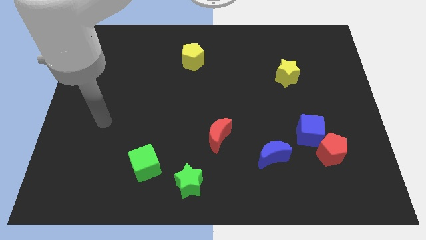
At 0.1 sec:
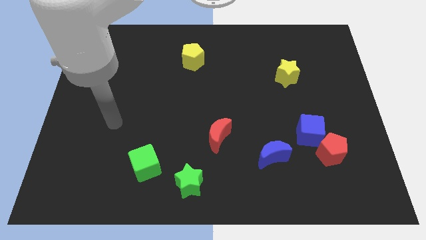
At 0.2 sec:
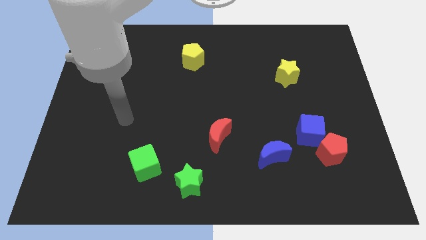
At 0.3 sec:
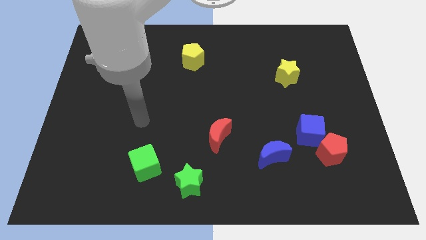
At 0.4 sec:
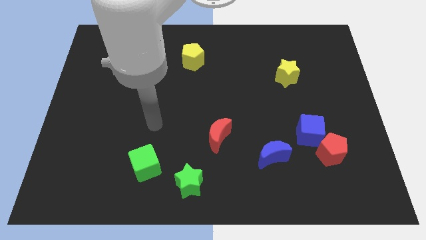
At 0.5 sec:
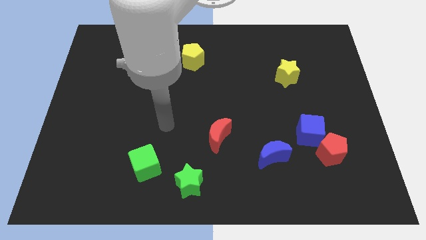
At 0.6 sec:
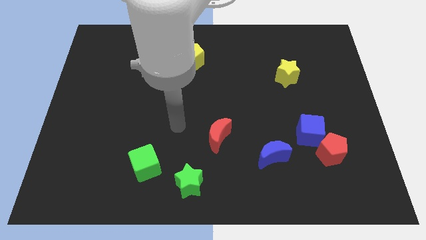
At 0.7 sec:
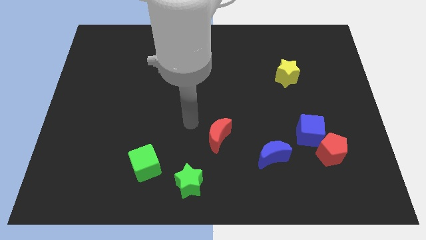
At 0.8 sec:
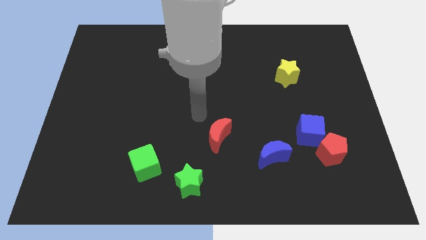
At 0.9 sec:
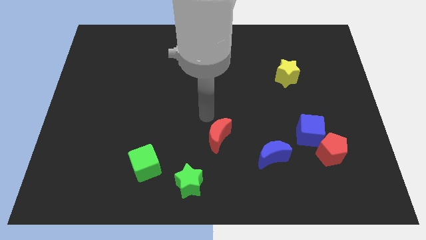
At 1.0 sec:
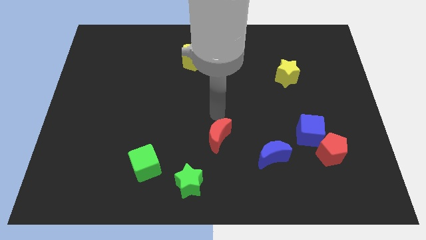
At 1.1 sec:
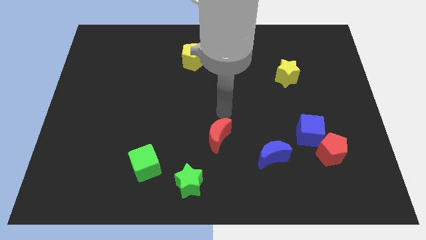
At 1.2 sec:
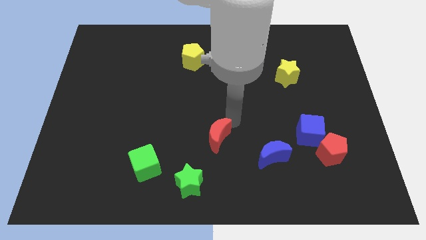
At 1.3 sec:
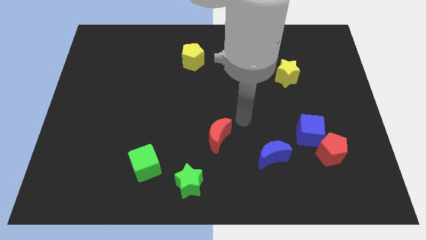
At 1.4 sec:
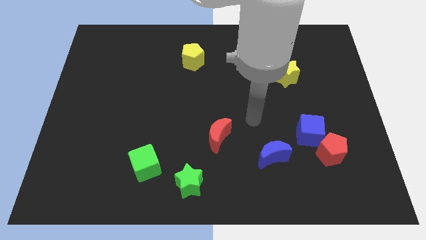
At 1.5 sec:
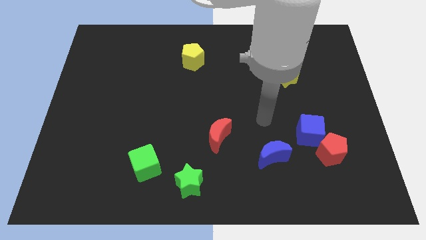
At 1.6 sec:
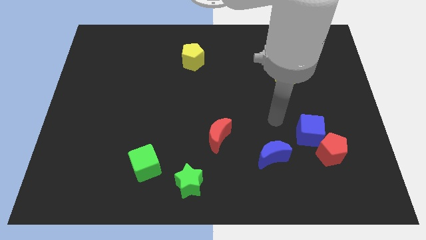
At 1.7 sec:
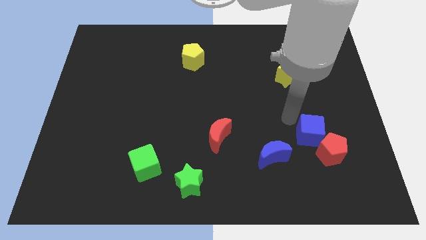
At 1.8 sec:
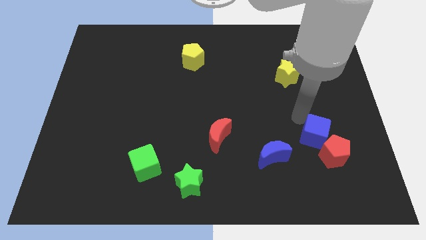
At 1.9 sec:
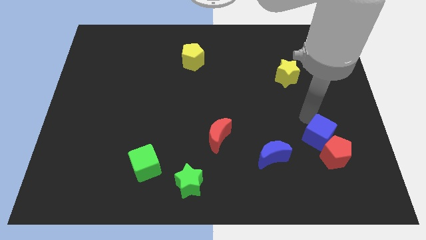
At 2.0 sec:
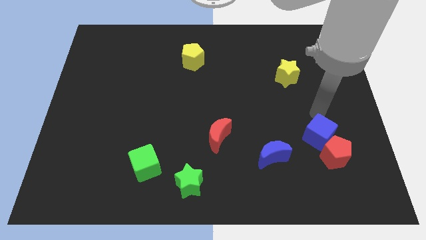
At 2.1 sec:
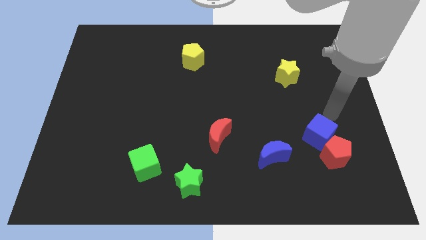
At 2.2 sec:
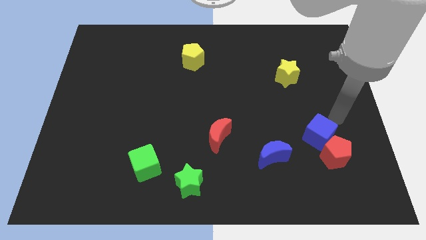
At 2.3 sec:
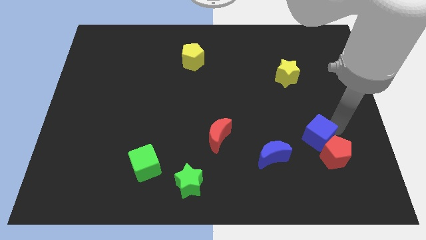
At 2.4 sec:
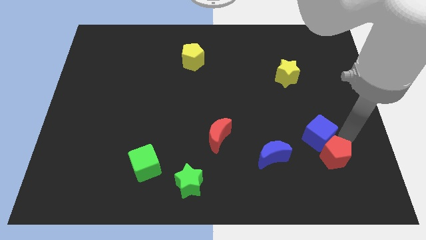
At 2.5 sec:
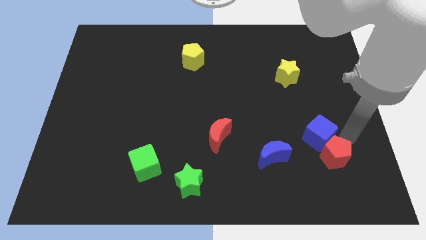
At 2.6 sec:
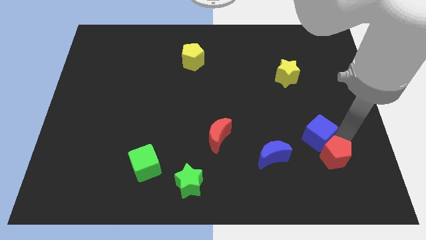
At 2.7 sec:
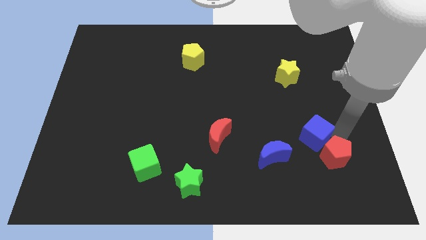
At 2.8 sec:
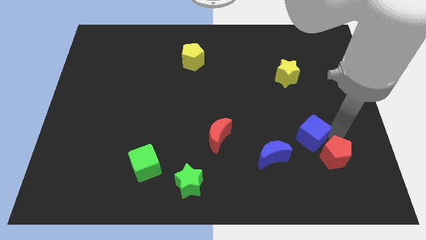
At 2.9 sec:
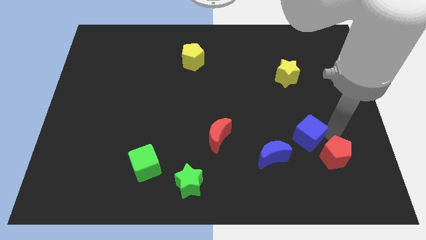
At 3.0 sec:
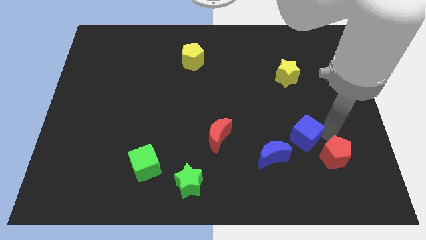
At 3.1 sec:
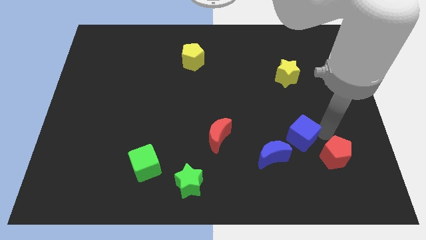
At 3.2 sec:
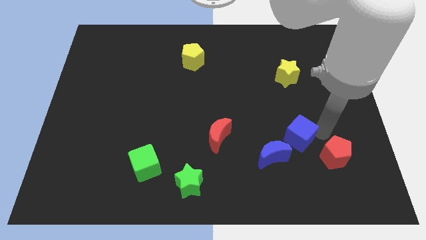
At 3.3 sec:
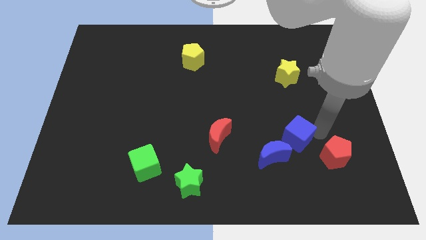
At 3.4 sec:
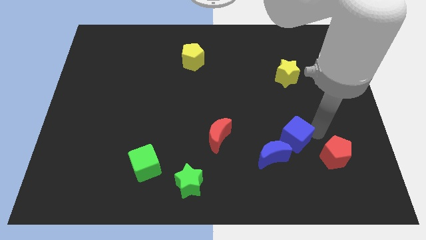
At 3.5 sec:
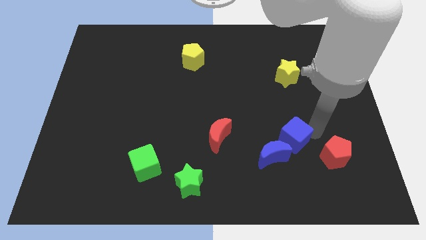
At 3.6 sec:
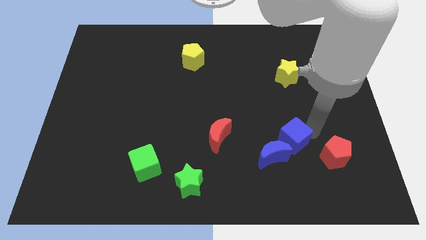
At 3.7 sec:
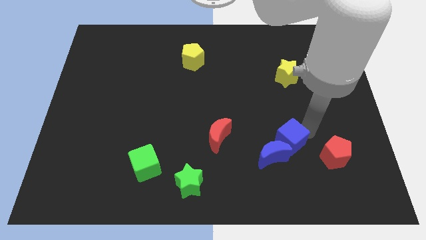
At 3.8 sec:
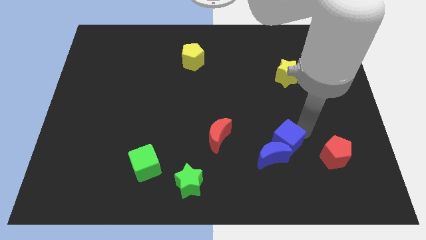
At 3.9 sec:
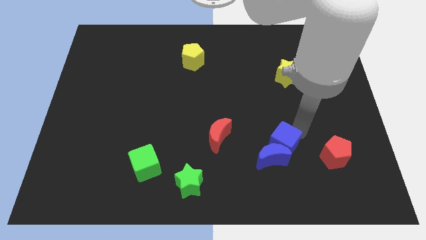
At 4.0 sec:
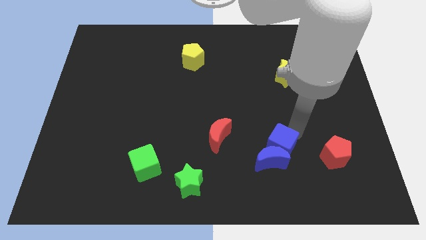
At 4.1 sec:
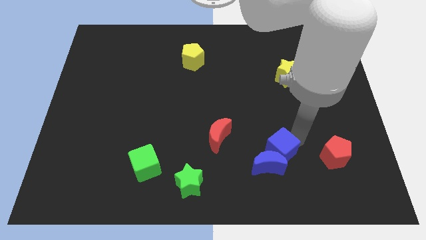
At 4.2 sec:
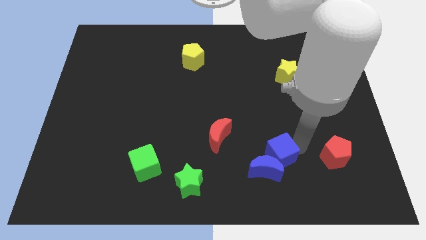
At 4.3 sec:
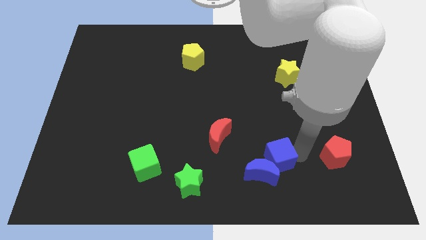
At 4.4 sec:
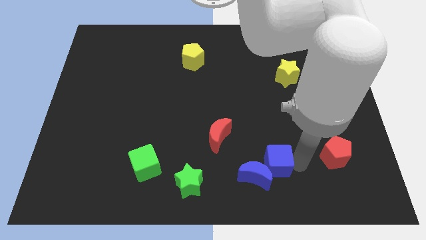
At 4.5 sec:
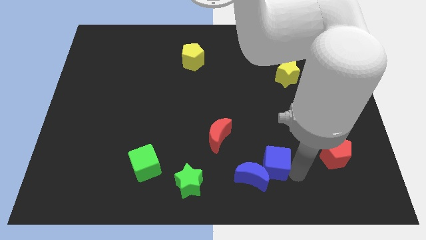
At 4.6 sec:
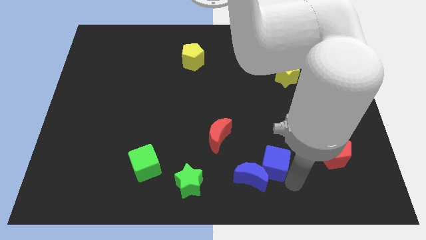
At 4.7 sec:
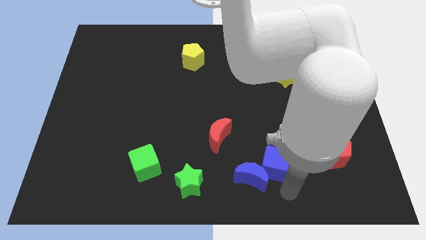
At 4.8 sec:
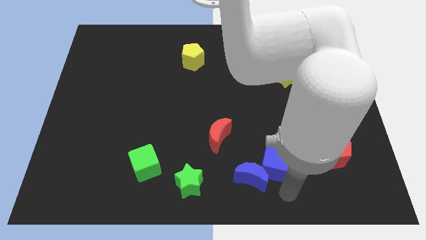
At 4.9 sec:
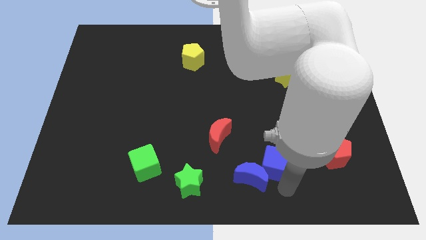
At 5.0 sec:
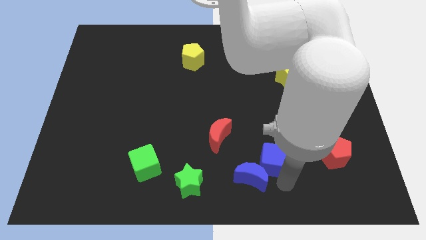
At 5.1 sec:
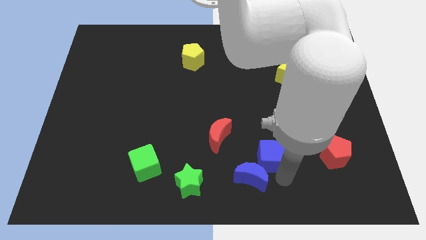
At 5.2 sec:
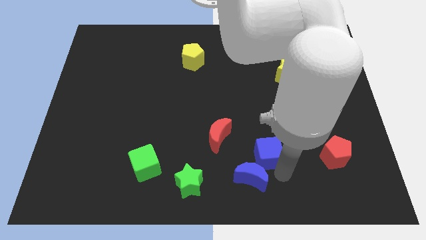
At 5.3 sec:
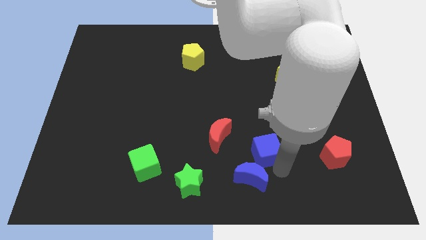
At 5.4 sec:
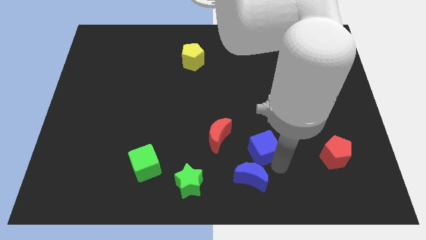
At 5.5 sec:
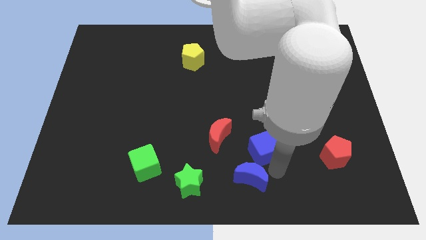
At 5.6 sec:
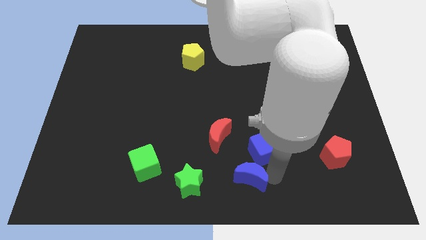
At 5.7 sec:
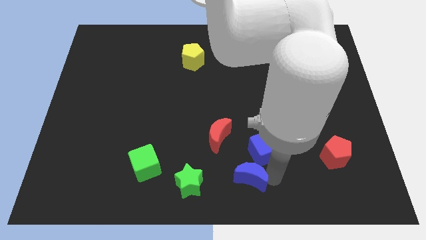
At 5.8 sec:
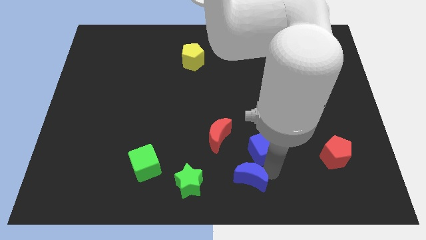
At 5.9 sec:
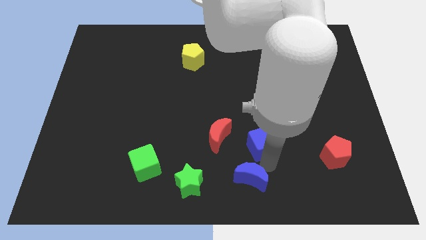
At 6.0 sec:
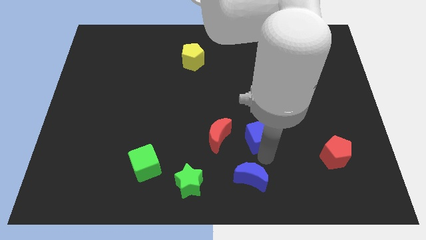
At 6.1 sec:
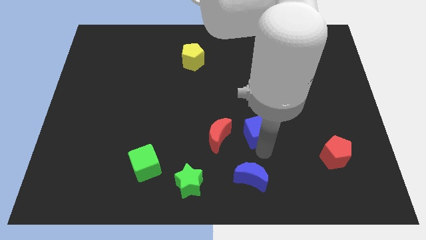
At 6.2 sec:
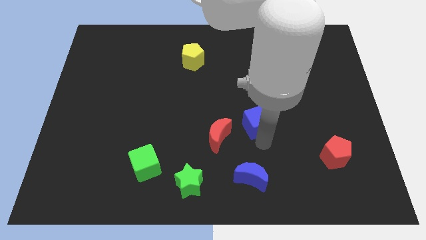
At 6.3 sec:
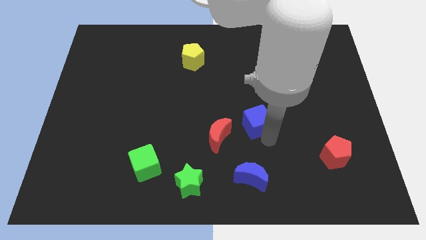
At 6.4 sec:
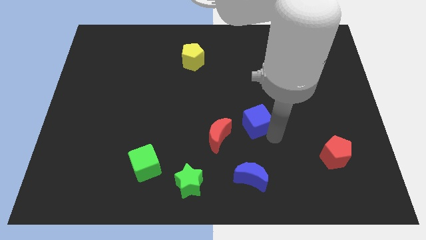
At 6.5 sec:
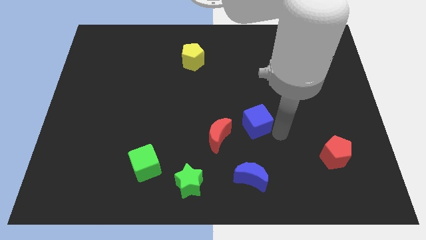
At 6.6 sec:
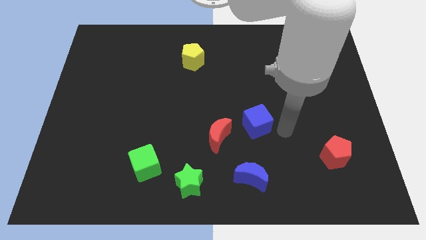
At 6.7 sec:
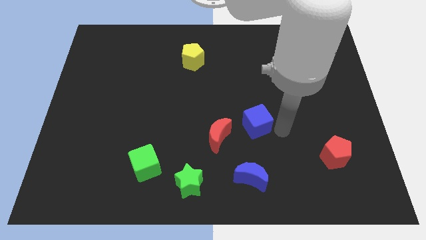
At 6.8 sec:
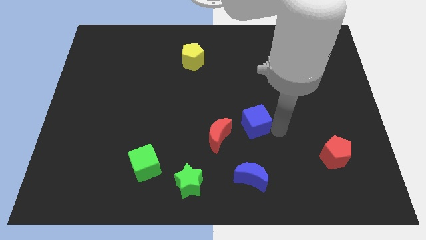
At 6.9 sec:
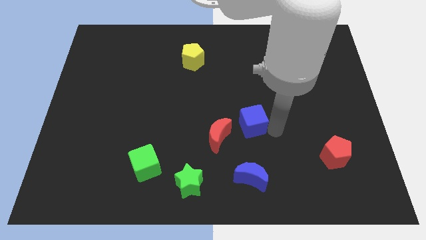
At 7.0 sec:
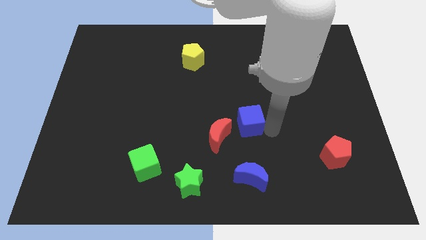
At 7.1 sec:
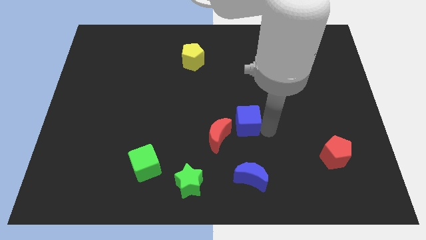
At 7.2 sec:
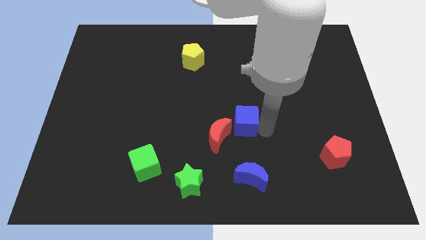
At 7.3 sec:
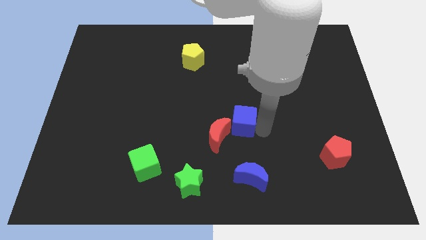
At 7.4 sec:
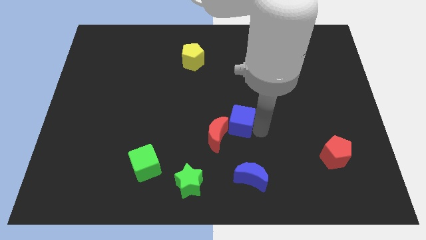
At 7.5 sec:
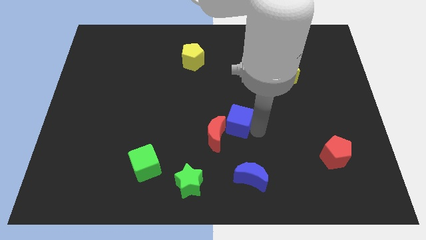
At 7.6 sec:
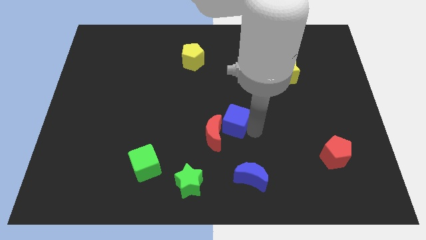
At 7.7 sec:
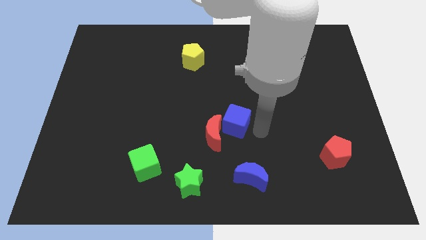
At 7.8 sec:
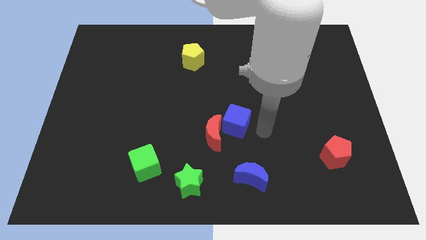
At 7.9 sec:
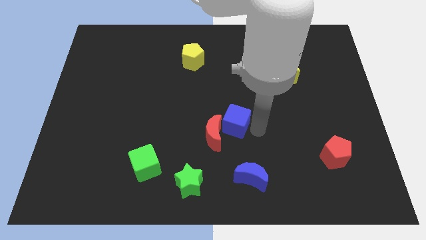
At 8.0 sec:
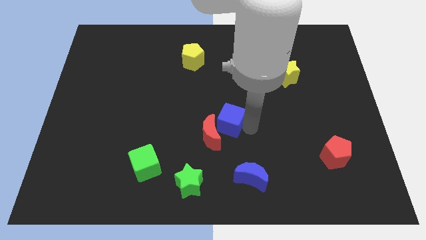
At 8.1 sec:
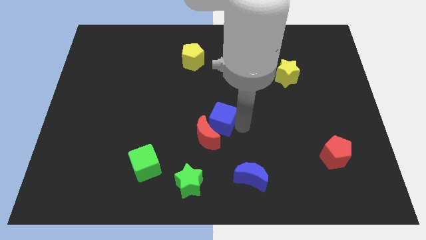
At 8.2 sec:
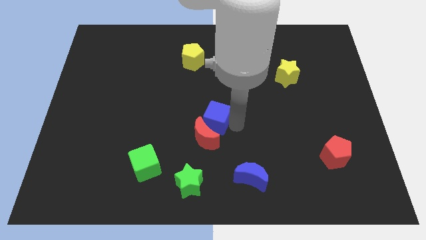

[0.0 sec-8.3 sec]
push the blue cube left
